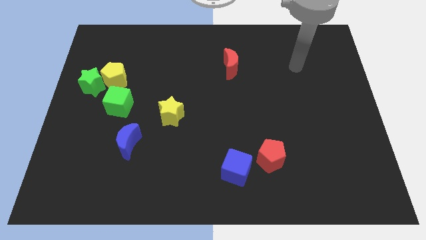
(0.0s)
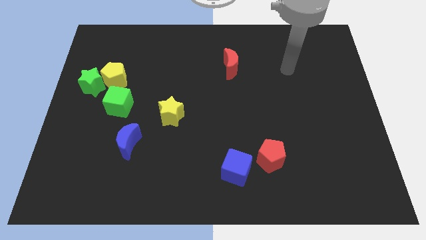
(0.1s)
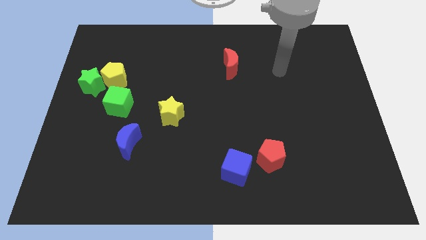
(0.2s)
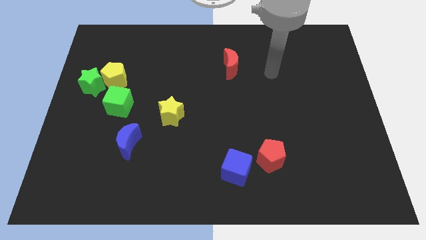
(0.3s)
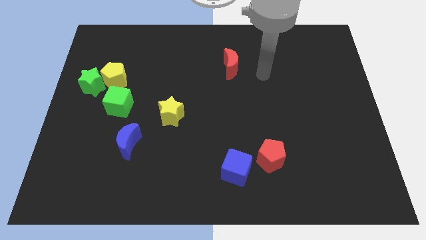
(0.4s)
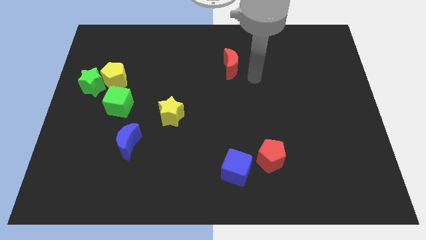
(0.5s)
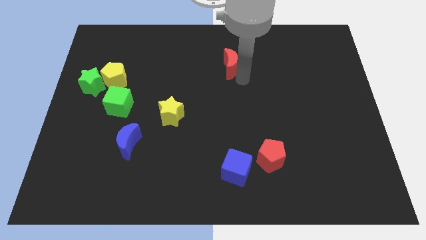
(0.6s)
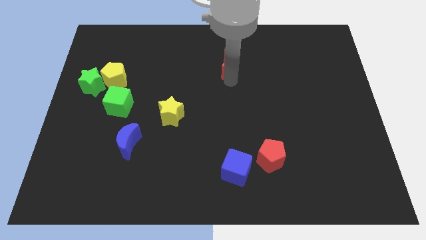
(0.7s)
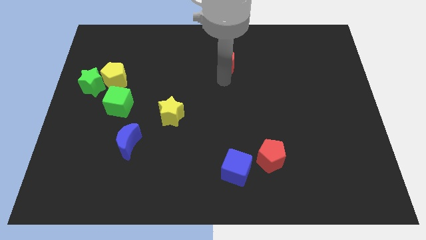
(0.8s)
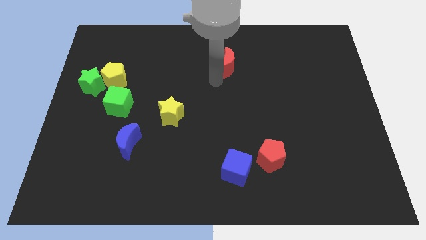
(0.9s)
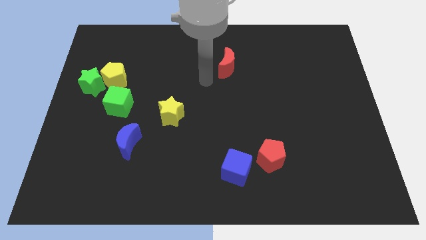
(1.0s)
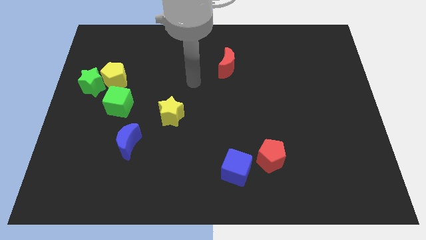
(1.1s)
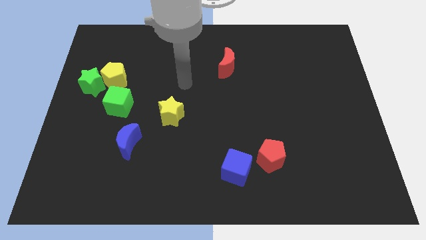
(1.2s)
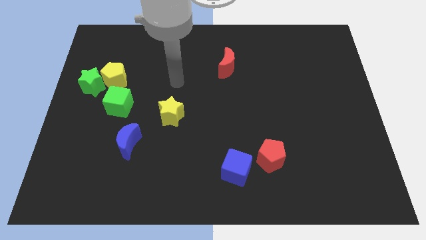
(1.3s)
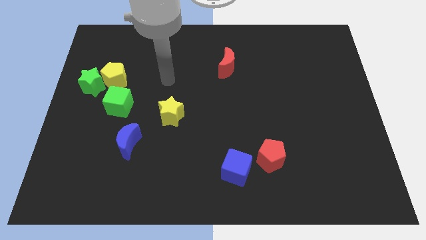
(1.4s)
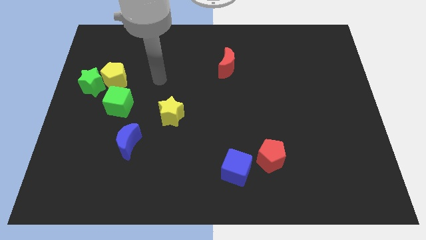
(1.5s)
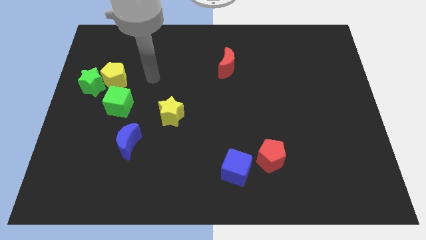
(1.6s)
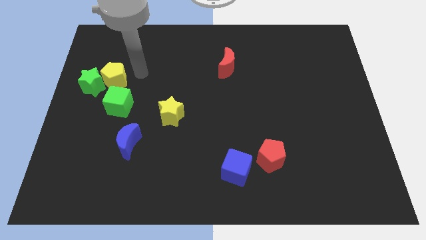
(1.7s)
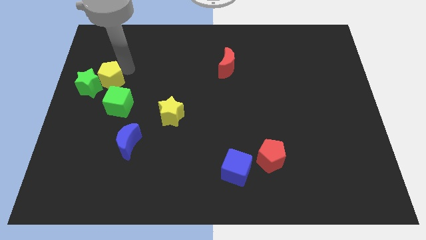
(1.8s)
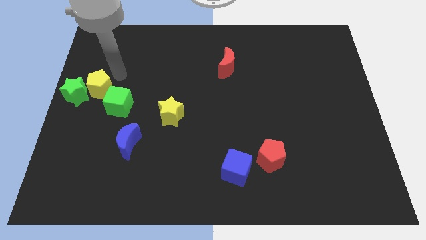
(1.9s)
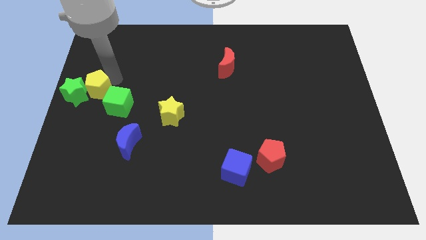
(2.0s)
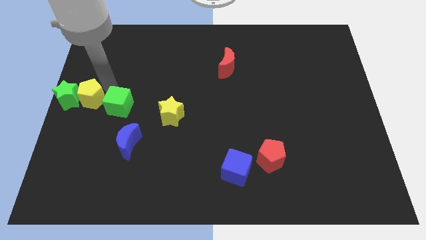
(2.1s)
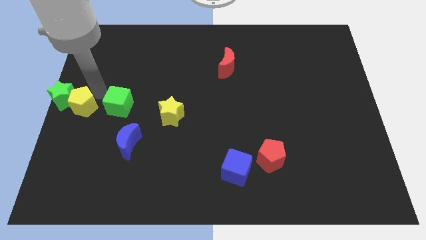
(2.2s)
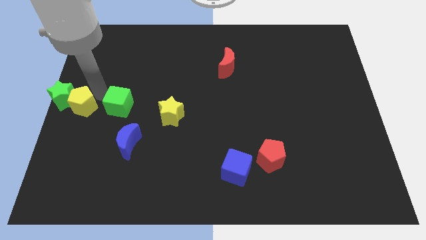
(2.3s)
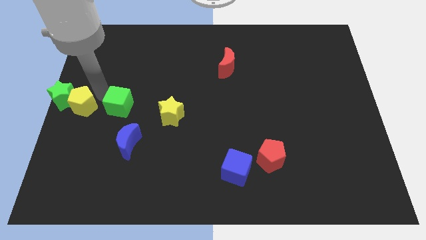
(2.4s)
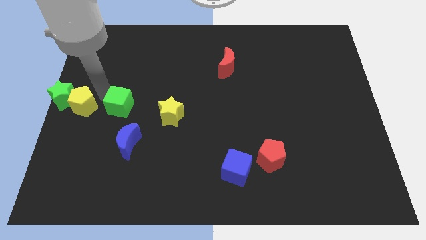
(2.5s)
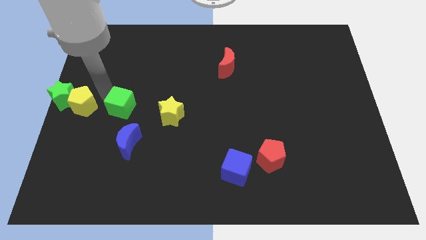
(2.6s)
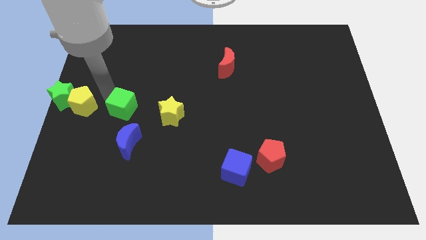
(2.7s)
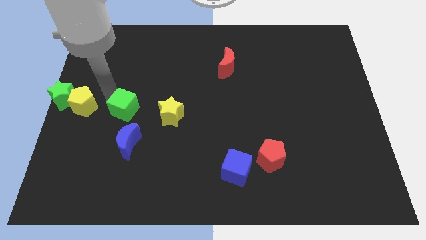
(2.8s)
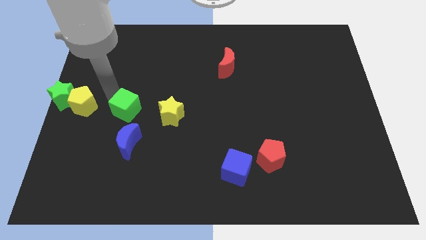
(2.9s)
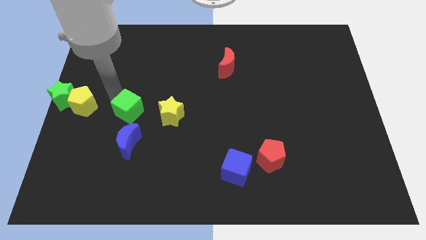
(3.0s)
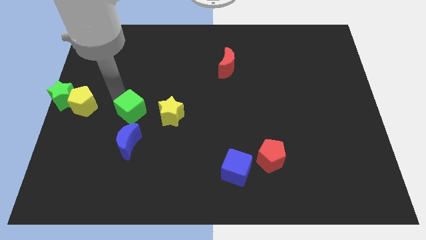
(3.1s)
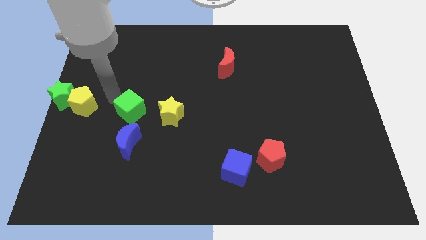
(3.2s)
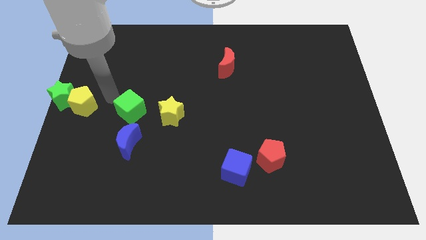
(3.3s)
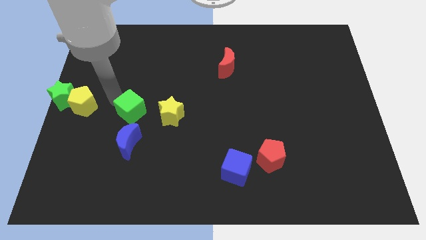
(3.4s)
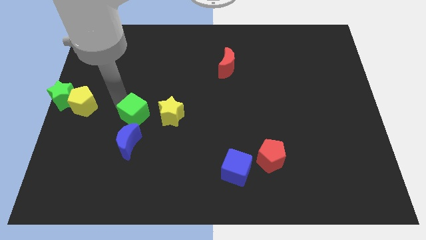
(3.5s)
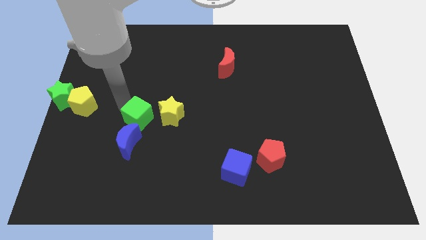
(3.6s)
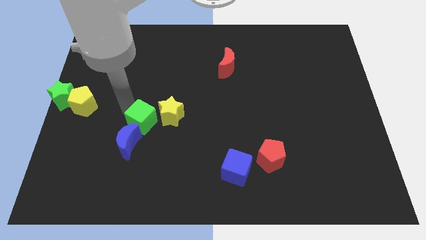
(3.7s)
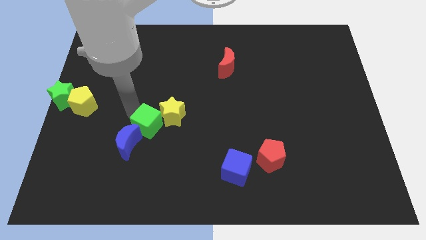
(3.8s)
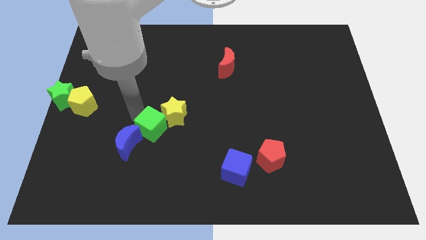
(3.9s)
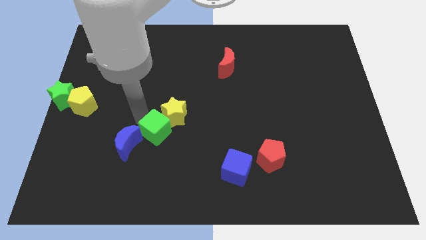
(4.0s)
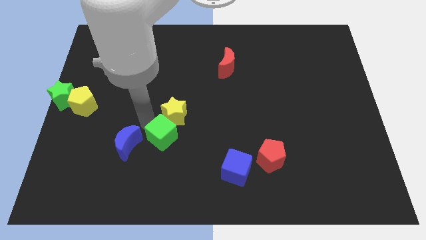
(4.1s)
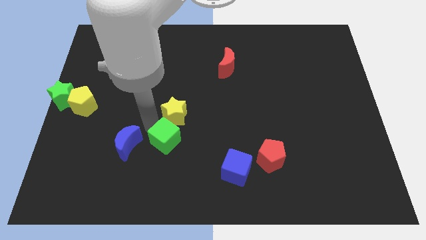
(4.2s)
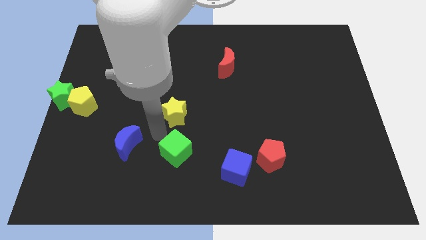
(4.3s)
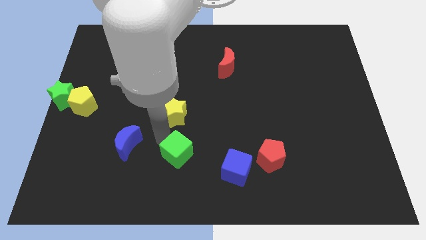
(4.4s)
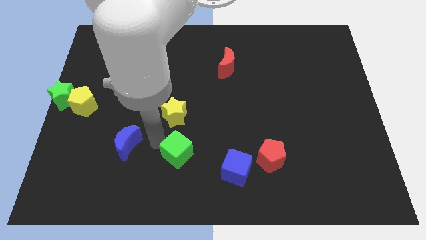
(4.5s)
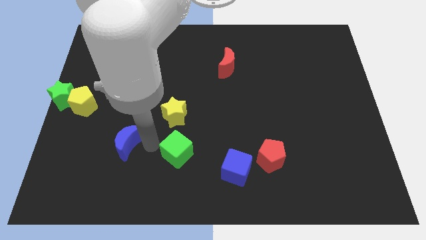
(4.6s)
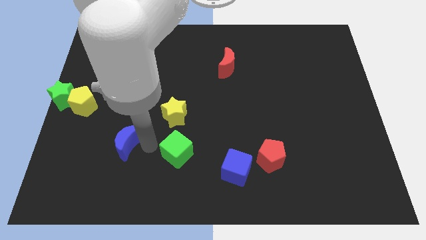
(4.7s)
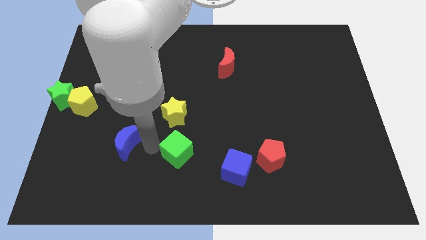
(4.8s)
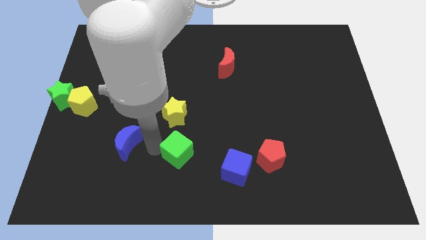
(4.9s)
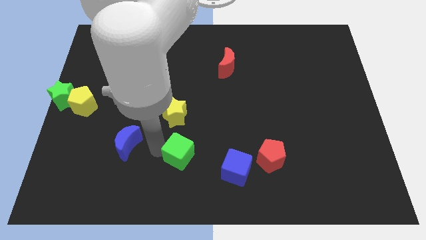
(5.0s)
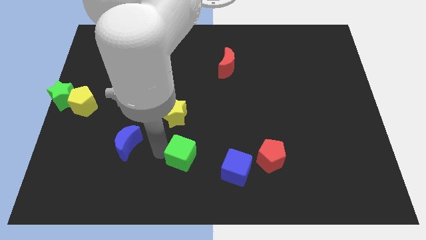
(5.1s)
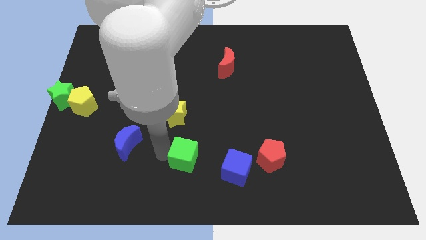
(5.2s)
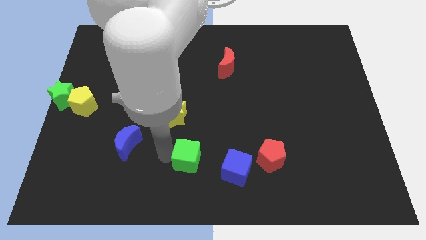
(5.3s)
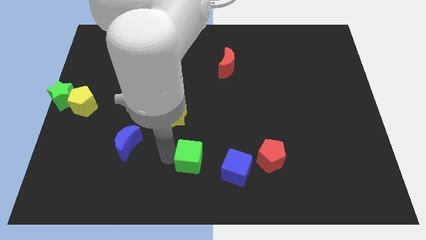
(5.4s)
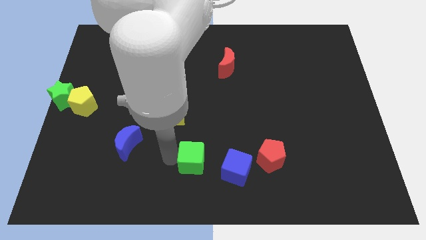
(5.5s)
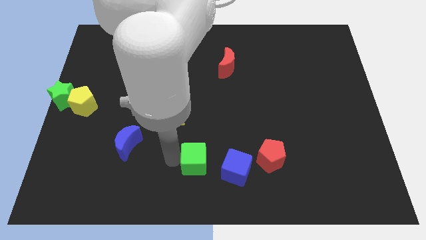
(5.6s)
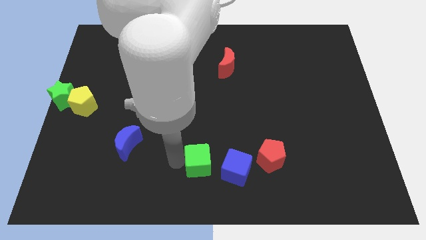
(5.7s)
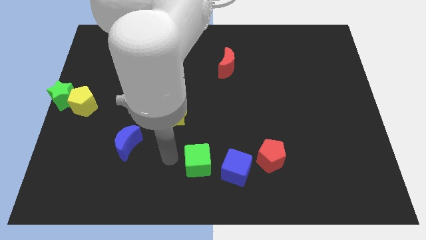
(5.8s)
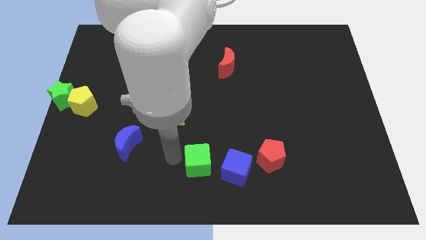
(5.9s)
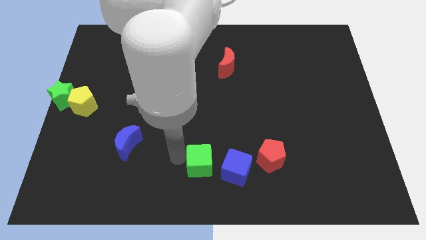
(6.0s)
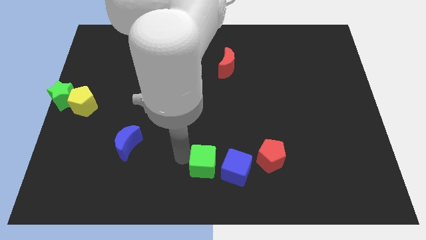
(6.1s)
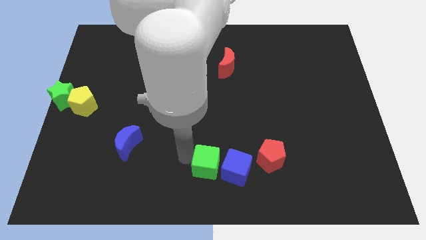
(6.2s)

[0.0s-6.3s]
slide the green cube next to the blue cube

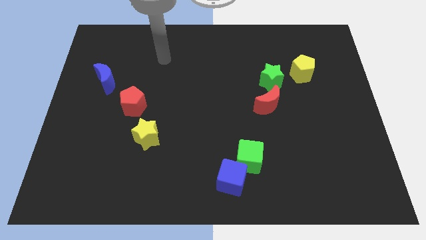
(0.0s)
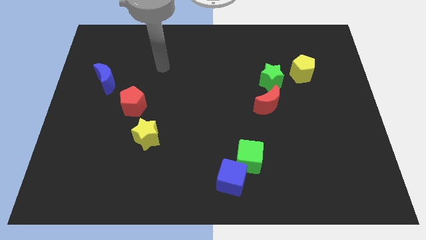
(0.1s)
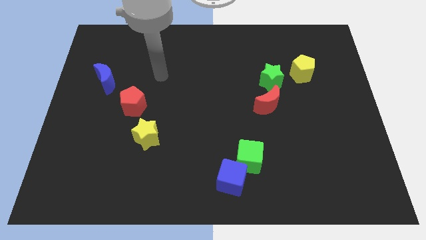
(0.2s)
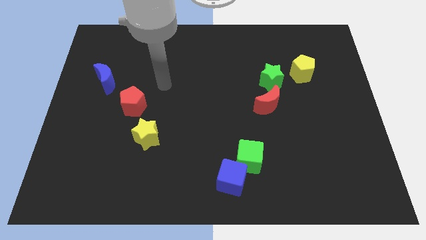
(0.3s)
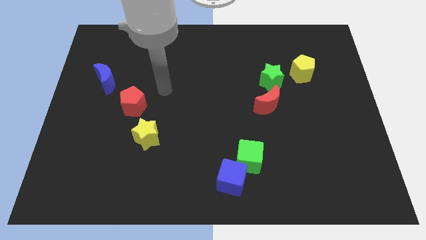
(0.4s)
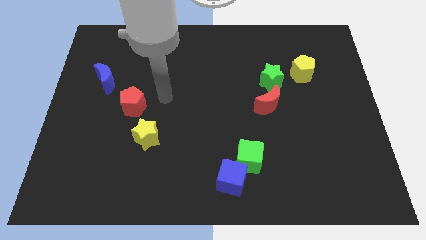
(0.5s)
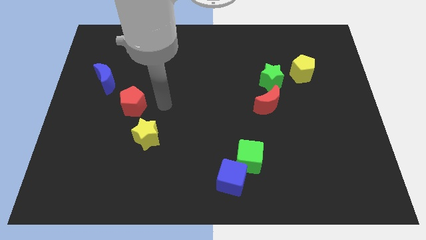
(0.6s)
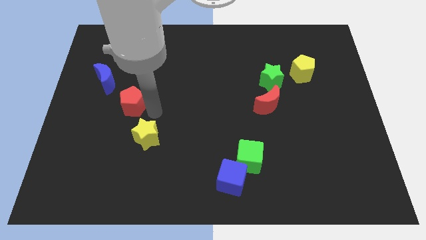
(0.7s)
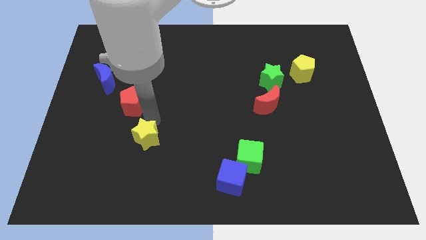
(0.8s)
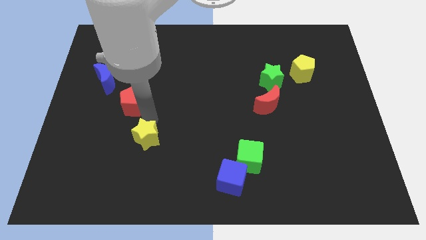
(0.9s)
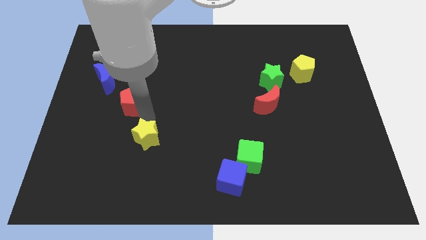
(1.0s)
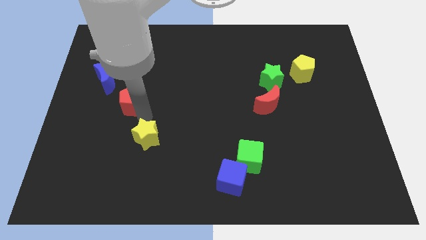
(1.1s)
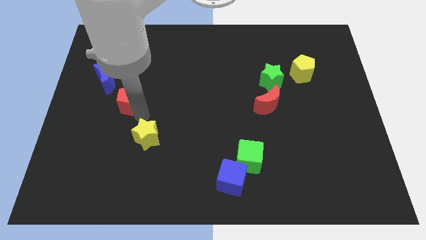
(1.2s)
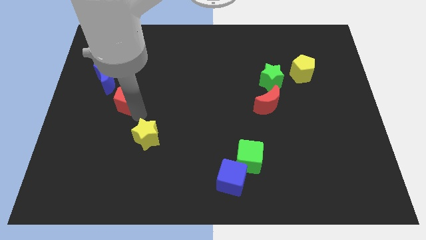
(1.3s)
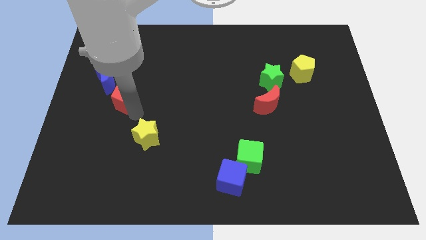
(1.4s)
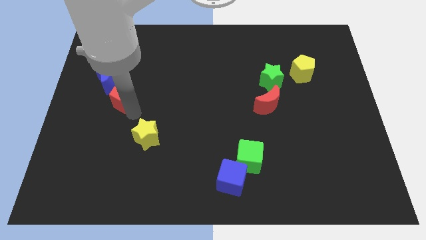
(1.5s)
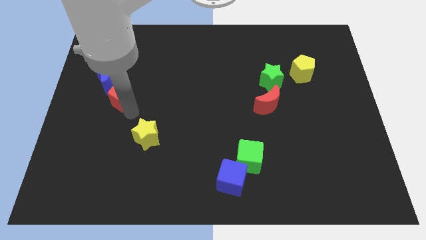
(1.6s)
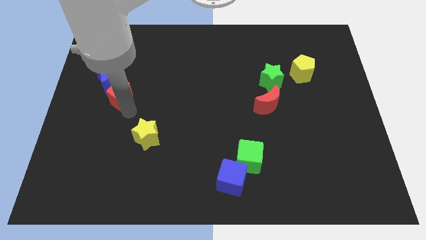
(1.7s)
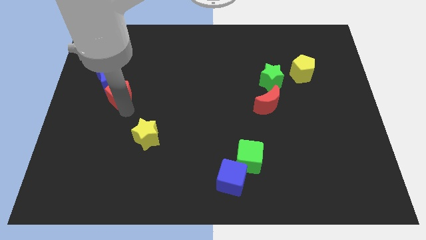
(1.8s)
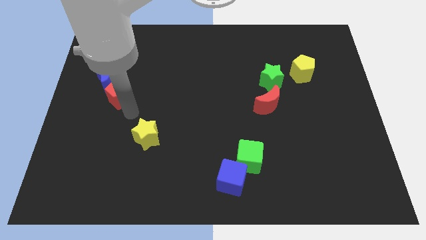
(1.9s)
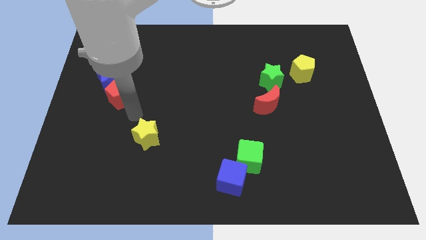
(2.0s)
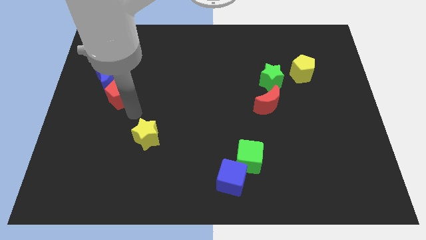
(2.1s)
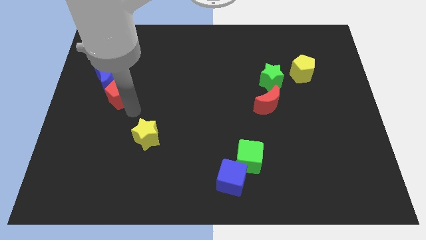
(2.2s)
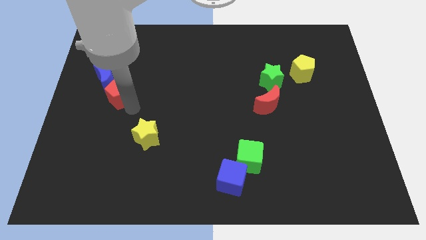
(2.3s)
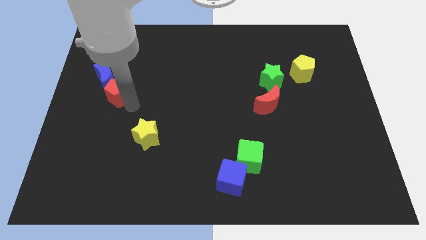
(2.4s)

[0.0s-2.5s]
push the red pentagon to the blue moon
